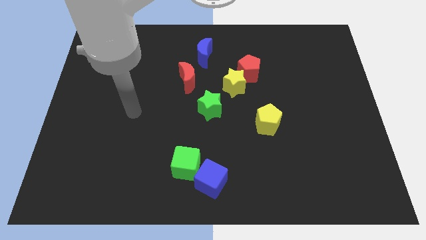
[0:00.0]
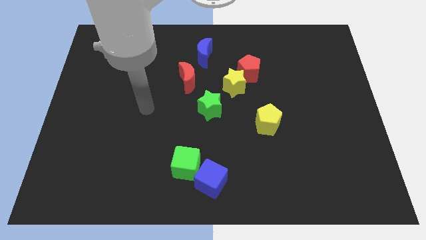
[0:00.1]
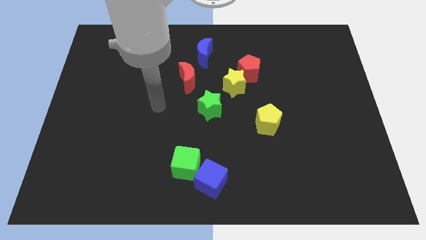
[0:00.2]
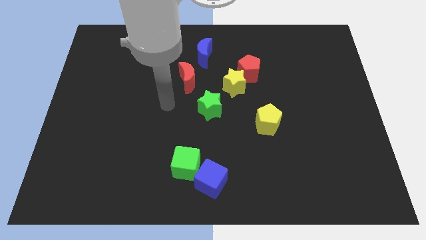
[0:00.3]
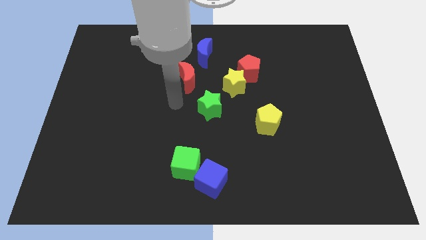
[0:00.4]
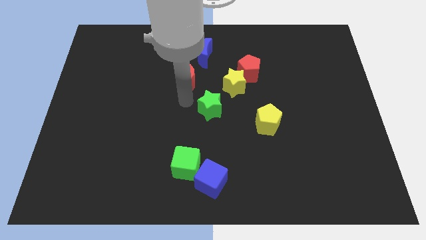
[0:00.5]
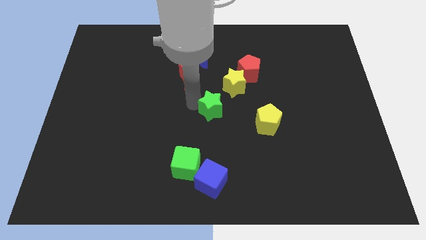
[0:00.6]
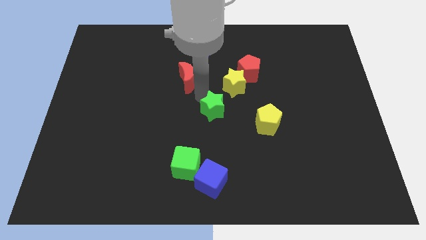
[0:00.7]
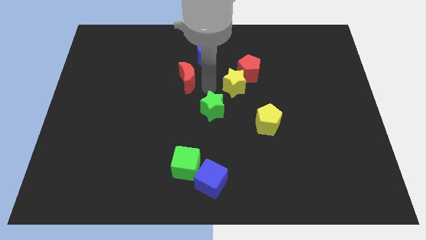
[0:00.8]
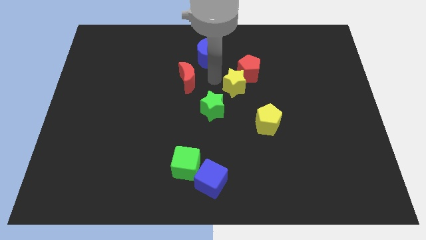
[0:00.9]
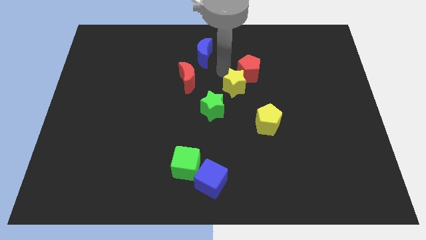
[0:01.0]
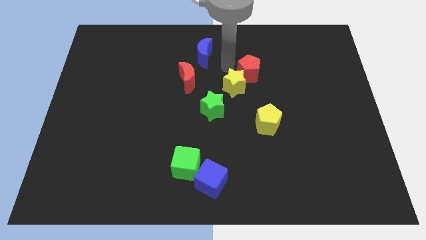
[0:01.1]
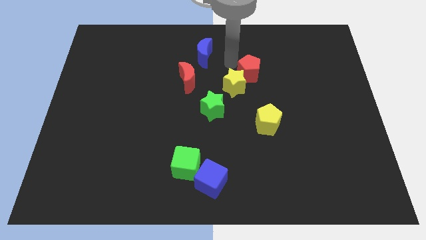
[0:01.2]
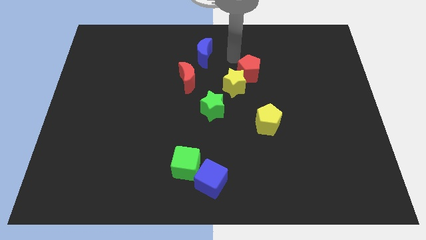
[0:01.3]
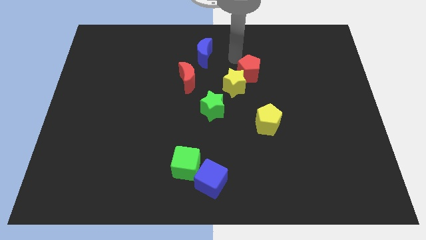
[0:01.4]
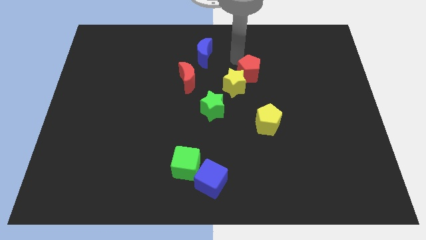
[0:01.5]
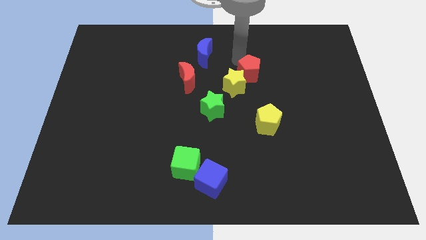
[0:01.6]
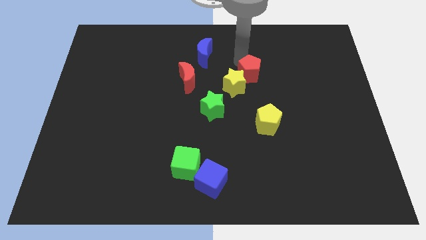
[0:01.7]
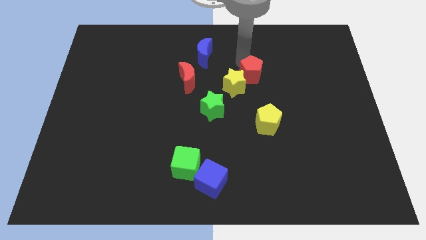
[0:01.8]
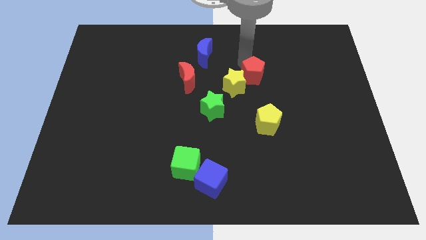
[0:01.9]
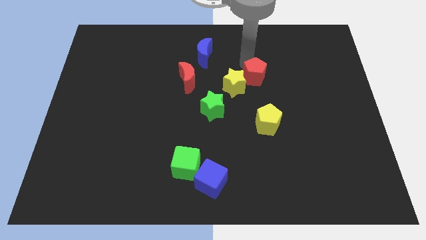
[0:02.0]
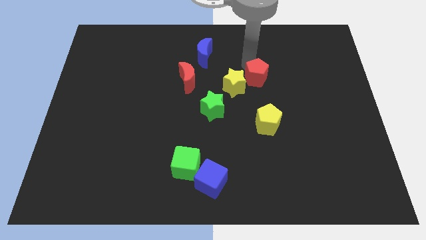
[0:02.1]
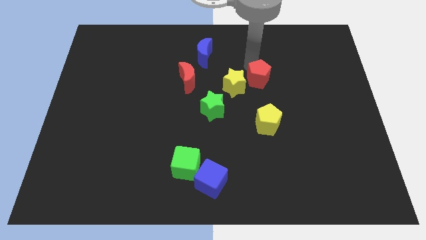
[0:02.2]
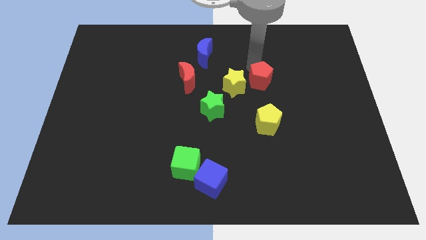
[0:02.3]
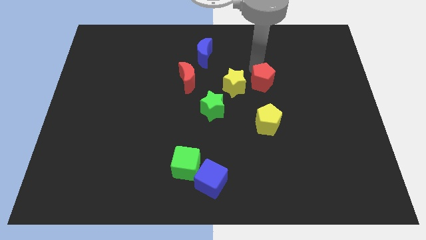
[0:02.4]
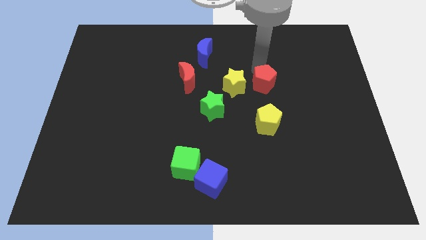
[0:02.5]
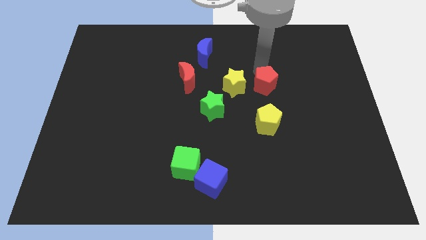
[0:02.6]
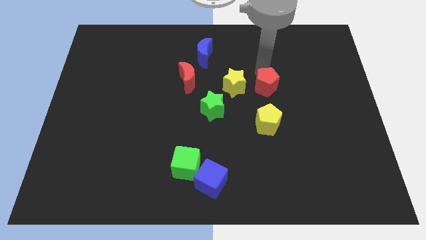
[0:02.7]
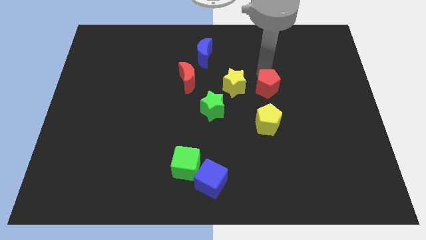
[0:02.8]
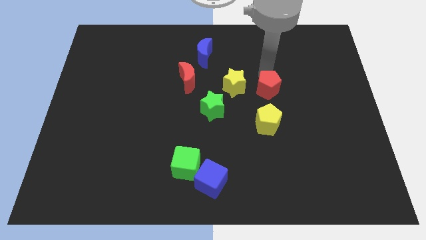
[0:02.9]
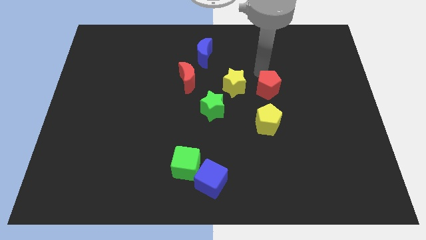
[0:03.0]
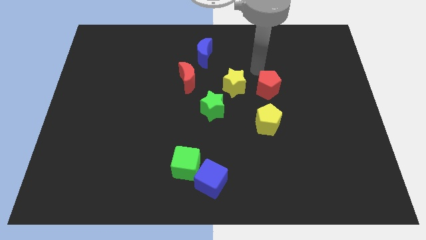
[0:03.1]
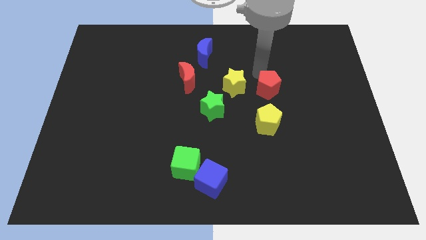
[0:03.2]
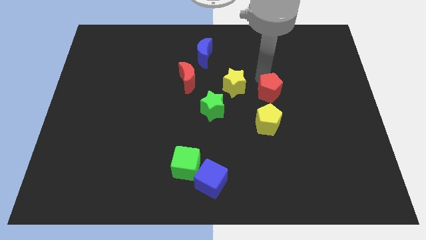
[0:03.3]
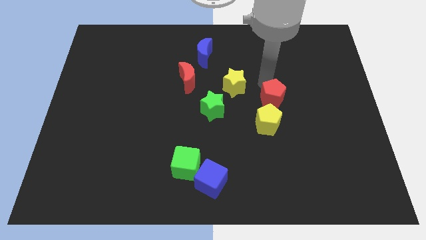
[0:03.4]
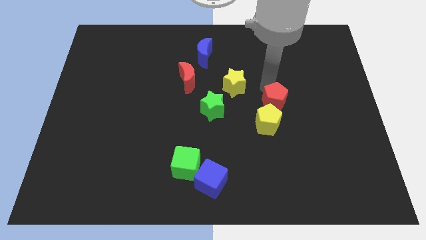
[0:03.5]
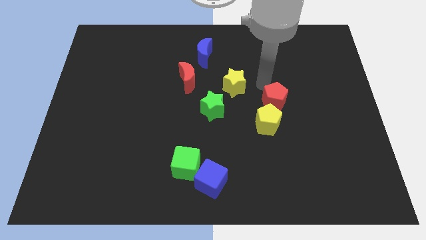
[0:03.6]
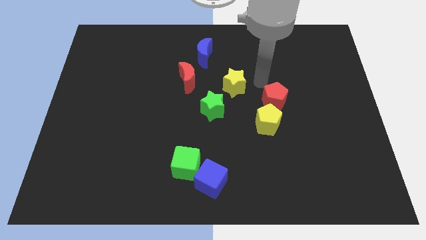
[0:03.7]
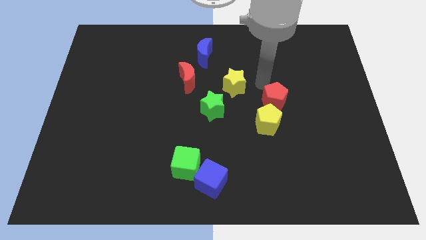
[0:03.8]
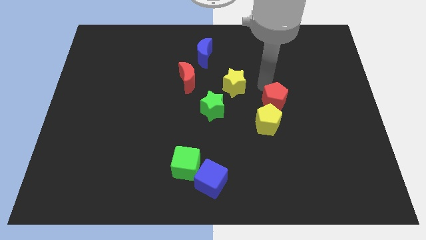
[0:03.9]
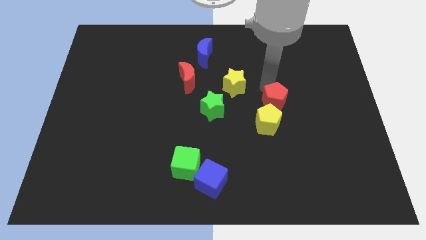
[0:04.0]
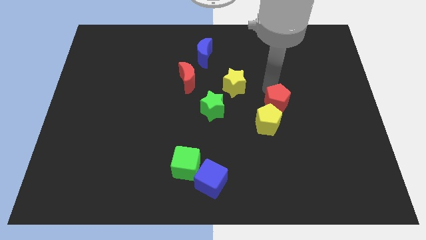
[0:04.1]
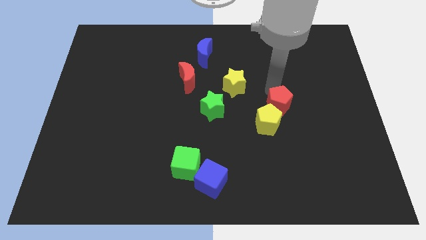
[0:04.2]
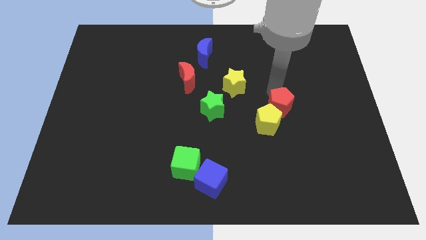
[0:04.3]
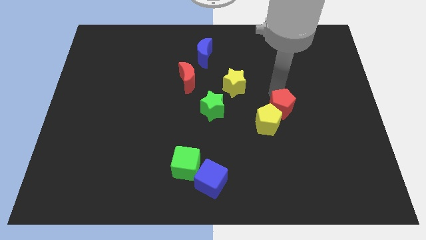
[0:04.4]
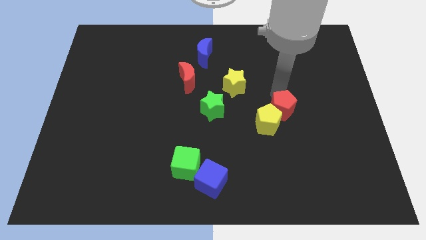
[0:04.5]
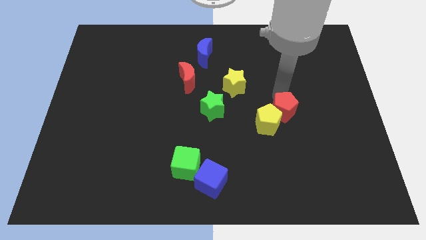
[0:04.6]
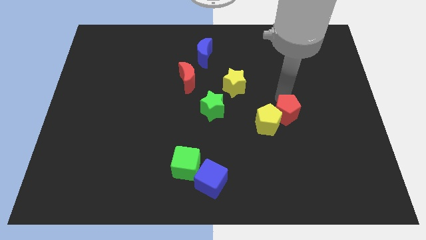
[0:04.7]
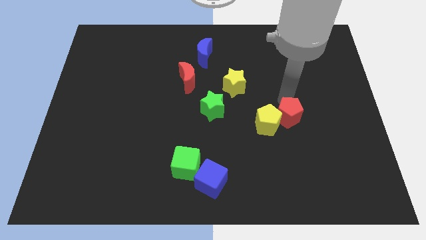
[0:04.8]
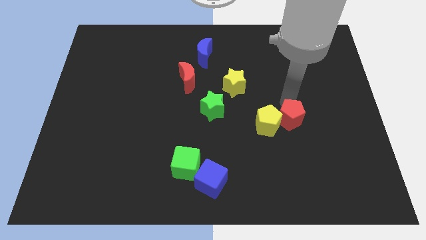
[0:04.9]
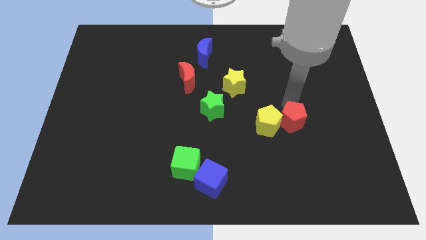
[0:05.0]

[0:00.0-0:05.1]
put the red pentagon to the bottom right of the yellow pentagon

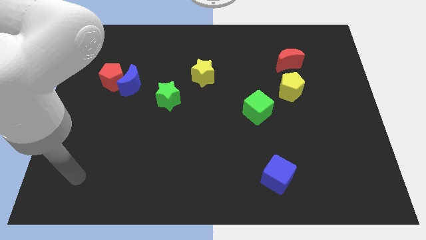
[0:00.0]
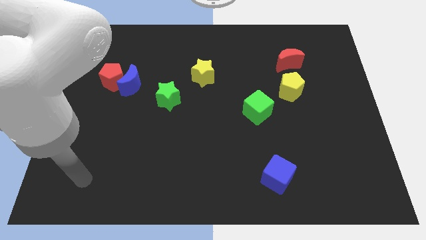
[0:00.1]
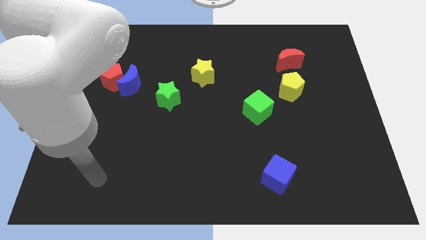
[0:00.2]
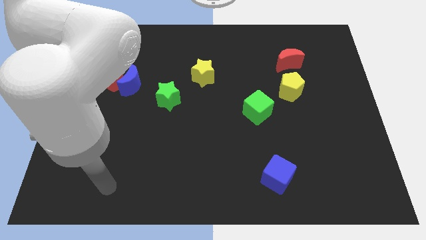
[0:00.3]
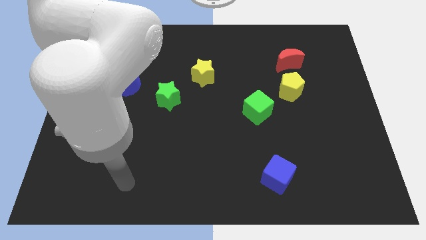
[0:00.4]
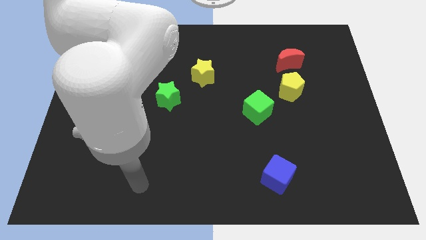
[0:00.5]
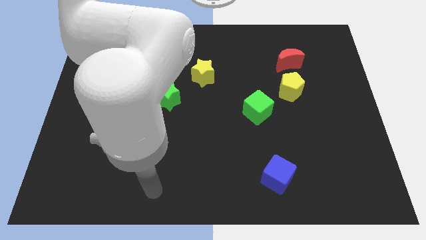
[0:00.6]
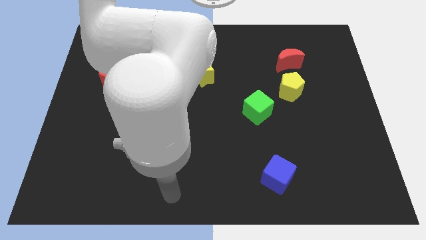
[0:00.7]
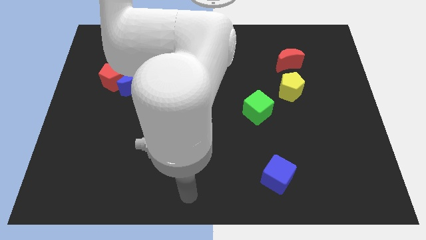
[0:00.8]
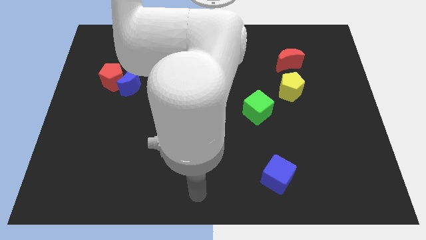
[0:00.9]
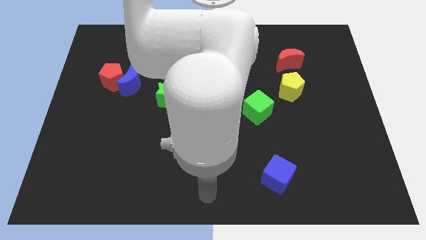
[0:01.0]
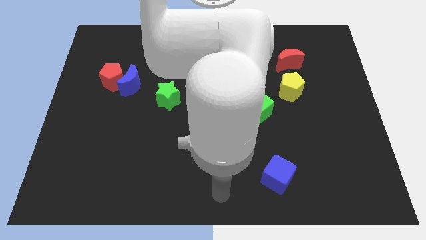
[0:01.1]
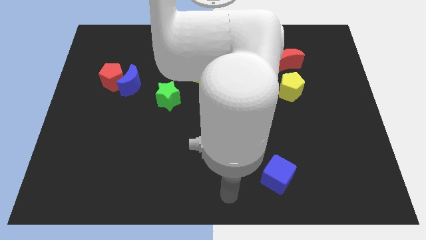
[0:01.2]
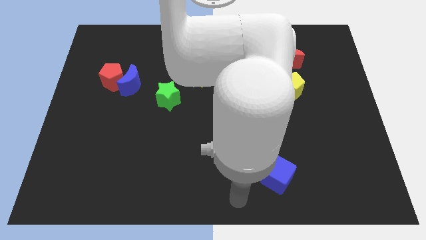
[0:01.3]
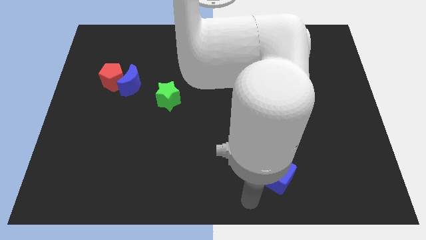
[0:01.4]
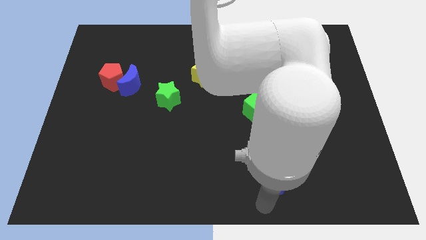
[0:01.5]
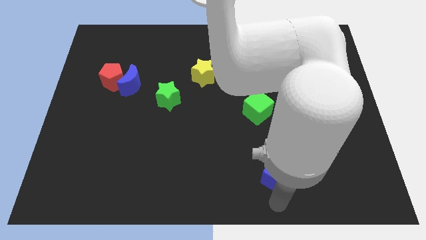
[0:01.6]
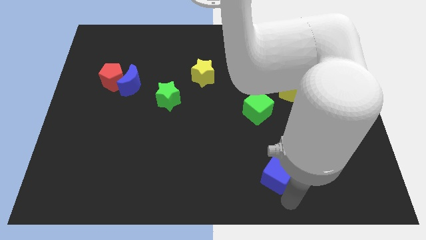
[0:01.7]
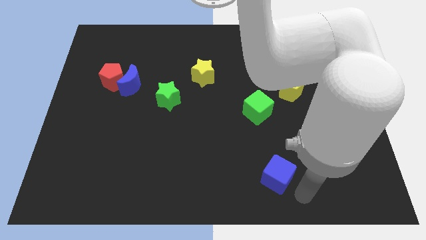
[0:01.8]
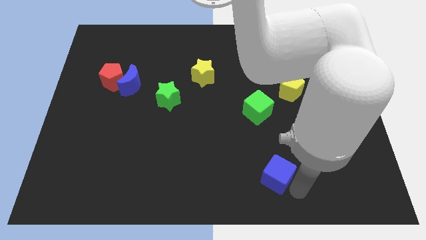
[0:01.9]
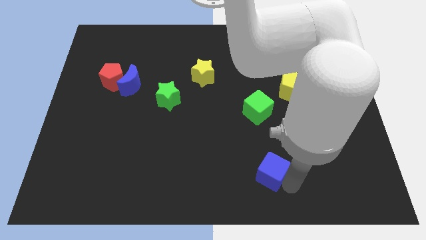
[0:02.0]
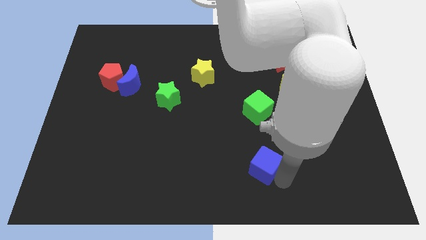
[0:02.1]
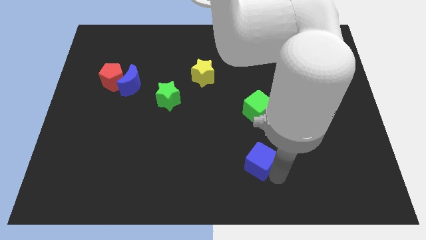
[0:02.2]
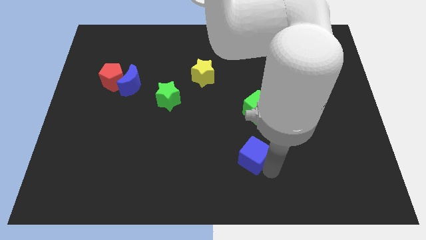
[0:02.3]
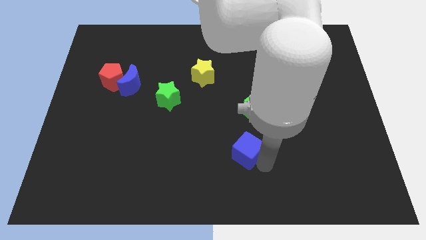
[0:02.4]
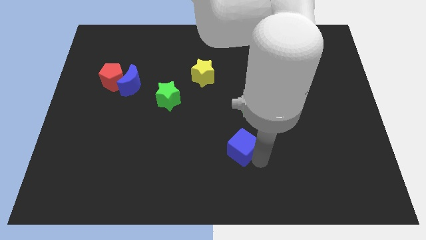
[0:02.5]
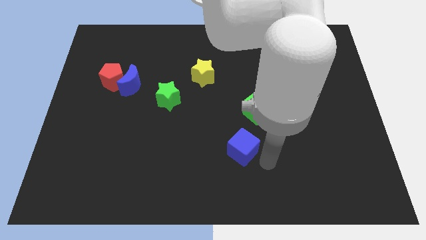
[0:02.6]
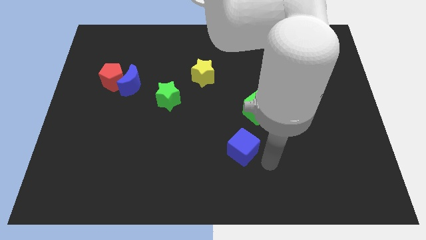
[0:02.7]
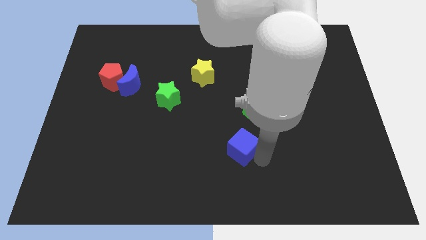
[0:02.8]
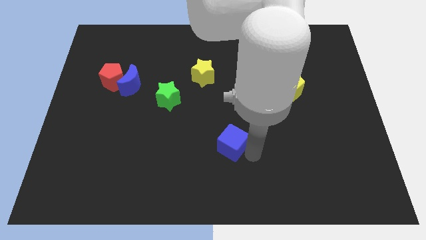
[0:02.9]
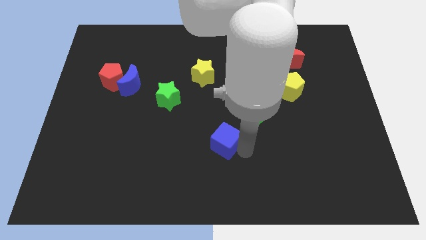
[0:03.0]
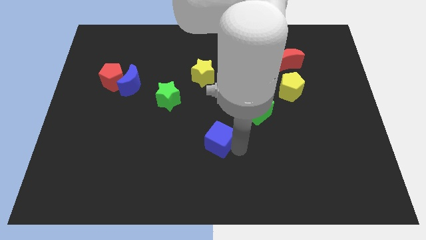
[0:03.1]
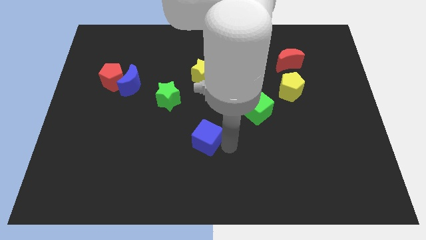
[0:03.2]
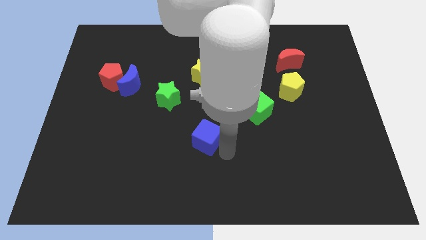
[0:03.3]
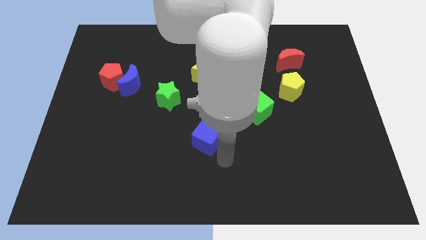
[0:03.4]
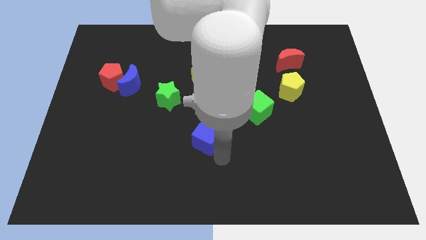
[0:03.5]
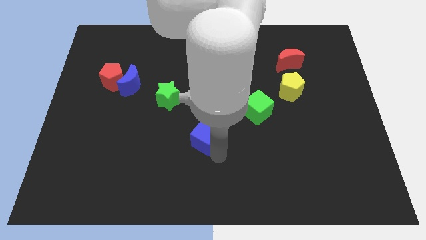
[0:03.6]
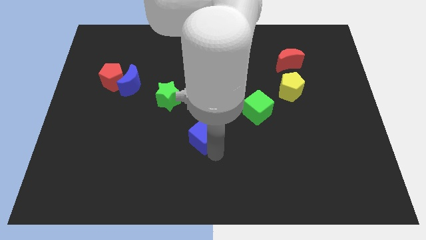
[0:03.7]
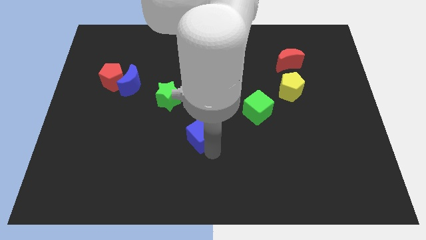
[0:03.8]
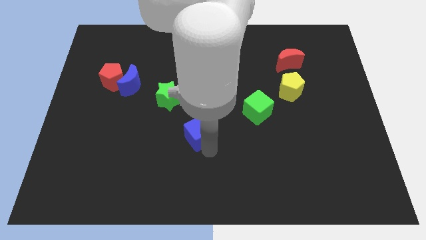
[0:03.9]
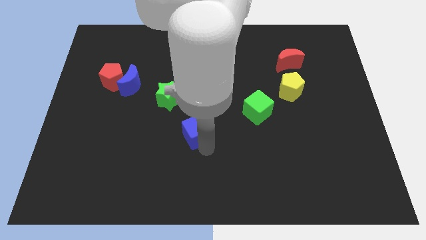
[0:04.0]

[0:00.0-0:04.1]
slide the blue cube to the bottom right of the green star
